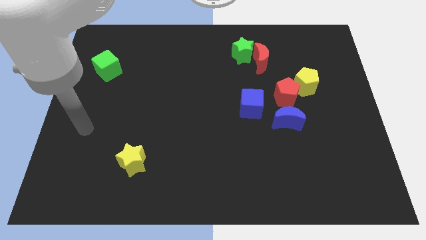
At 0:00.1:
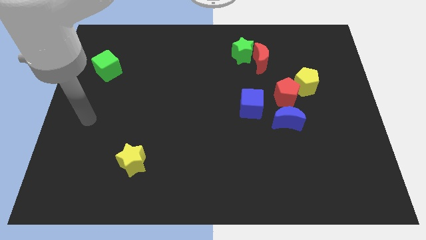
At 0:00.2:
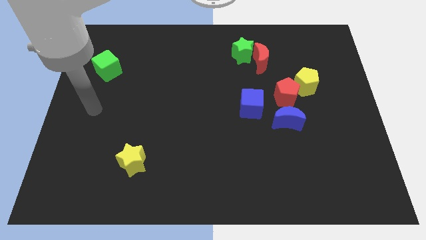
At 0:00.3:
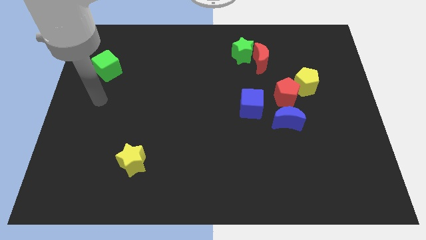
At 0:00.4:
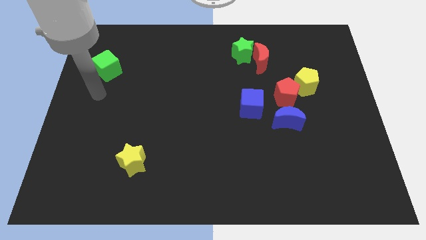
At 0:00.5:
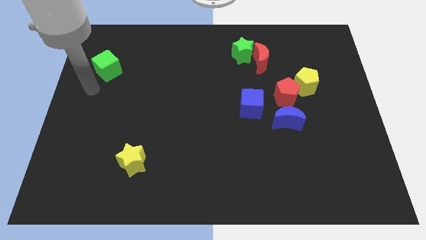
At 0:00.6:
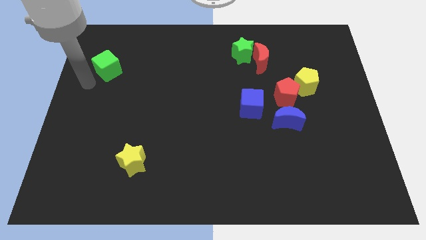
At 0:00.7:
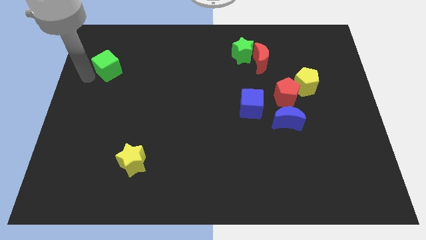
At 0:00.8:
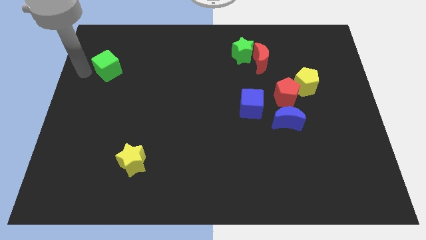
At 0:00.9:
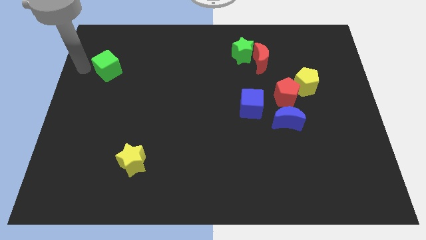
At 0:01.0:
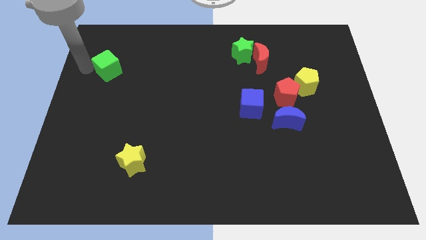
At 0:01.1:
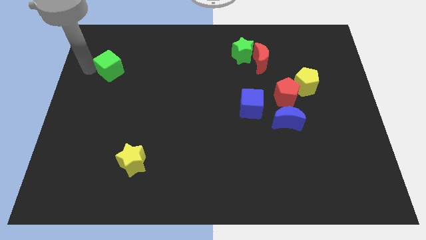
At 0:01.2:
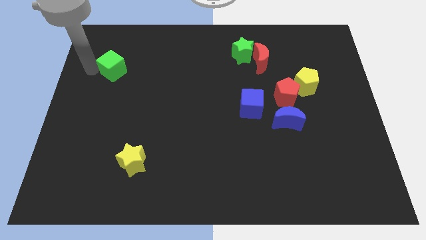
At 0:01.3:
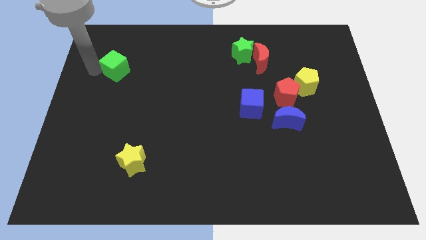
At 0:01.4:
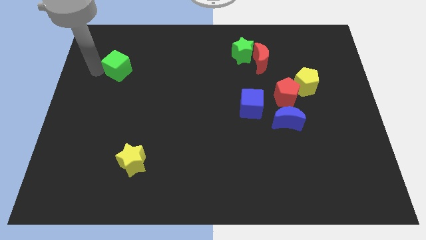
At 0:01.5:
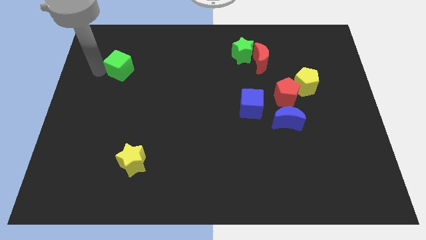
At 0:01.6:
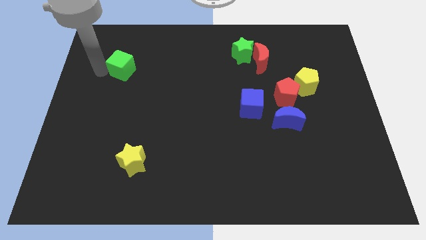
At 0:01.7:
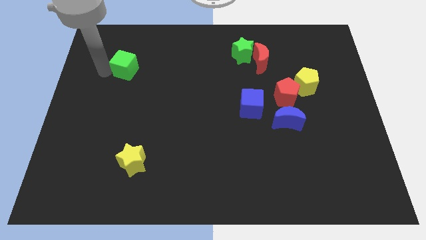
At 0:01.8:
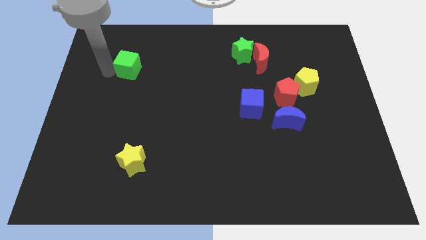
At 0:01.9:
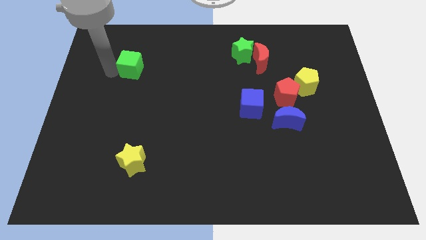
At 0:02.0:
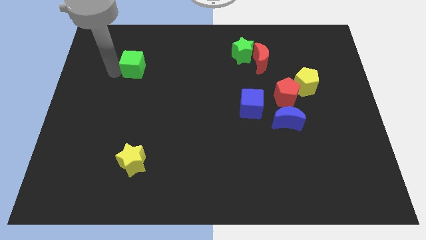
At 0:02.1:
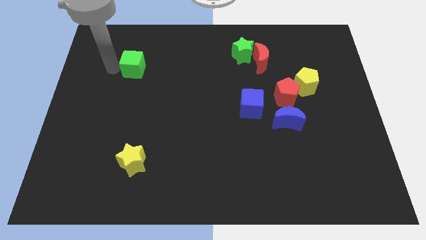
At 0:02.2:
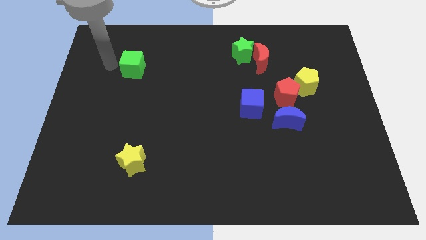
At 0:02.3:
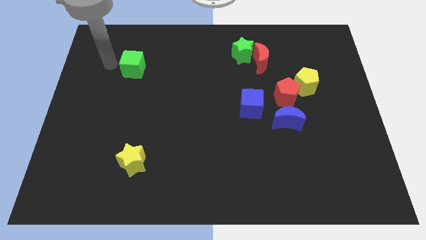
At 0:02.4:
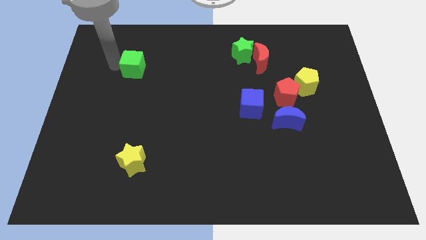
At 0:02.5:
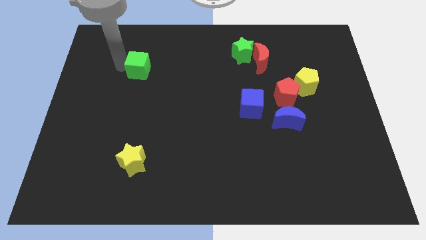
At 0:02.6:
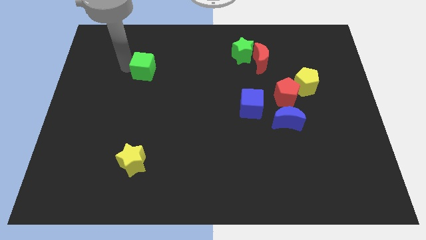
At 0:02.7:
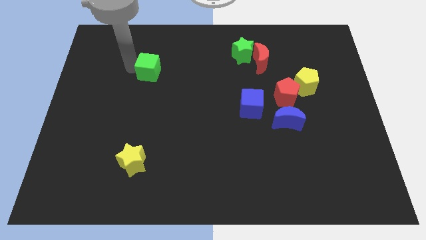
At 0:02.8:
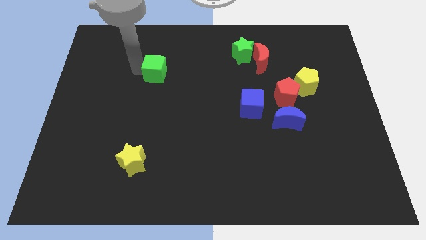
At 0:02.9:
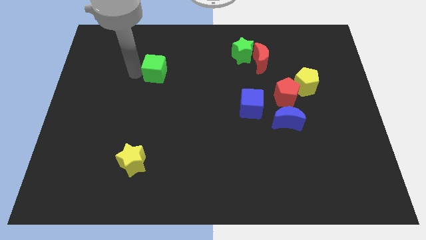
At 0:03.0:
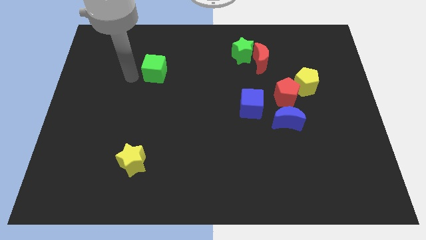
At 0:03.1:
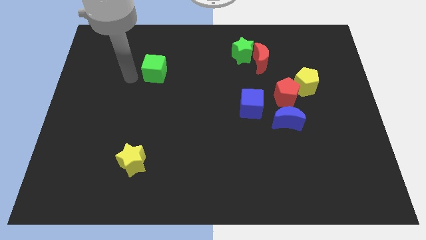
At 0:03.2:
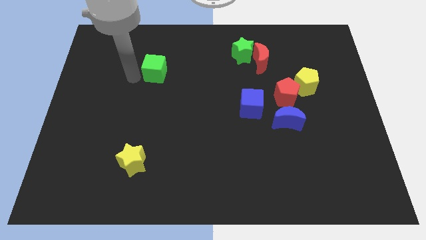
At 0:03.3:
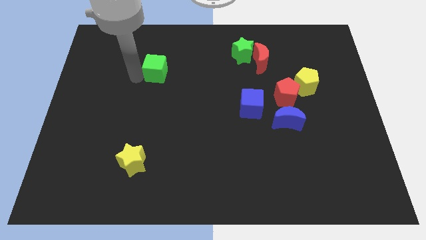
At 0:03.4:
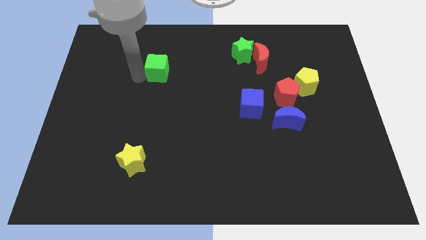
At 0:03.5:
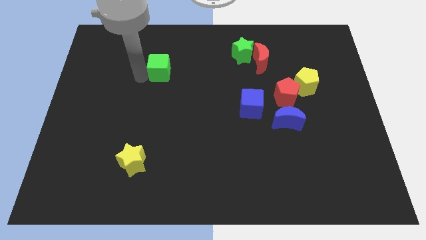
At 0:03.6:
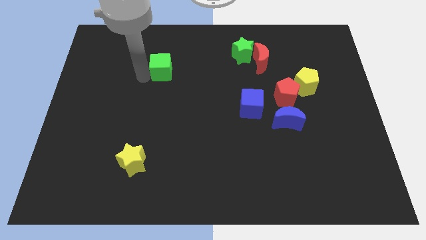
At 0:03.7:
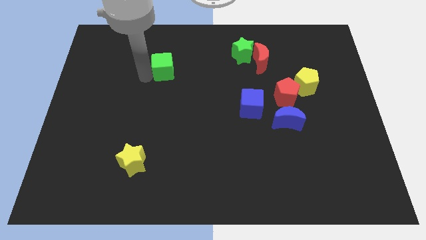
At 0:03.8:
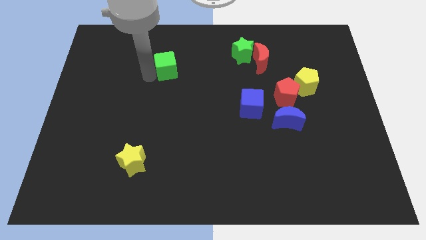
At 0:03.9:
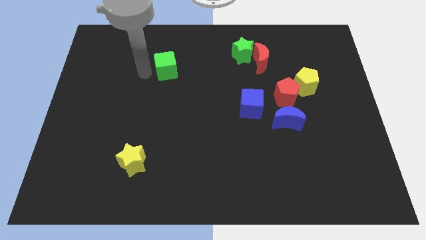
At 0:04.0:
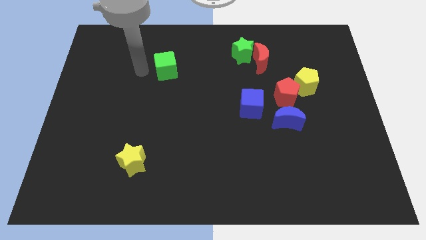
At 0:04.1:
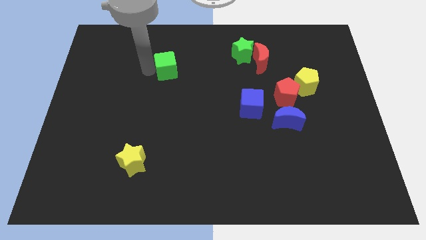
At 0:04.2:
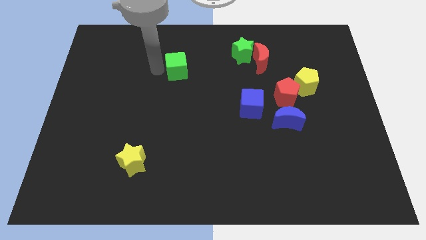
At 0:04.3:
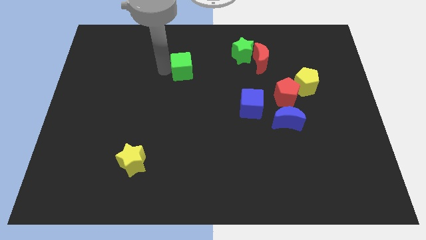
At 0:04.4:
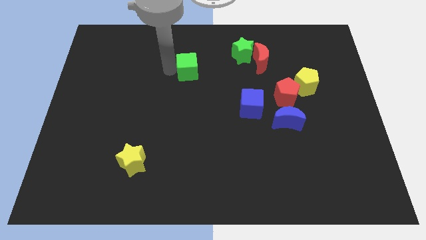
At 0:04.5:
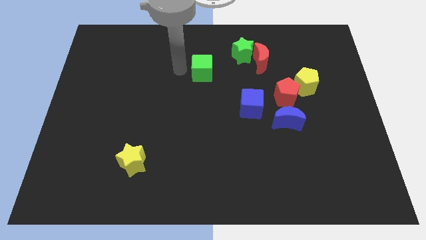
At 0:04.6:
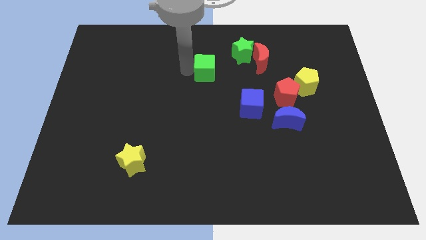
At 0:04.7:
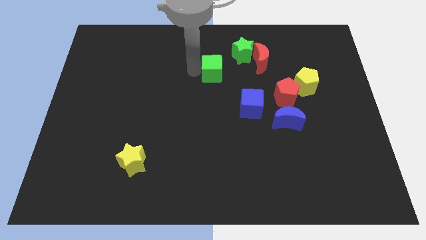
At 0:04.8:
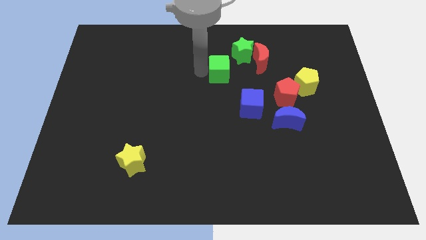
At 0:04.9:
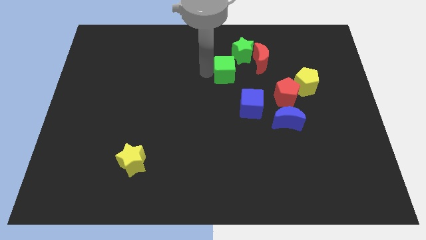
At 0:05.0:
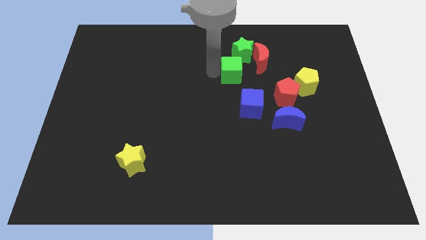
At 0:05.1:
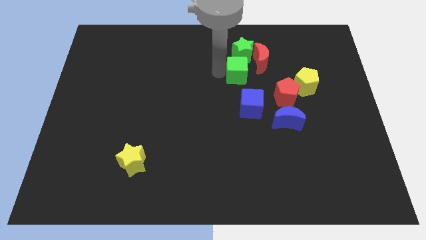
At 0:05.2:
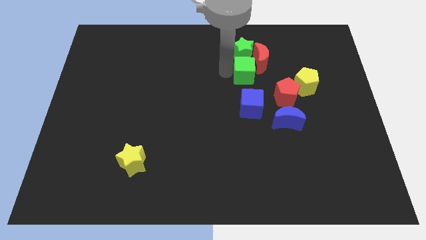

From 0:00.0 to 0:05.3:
push the green cube diagonally up and to the left of the red pentagon

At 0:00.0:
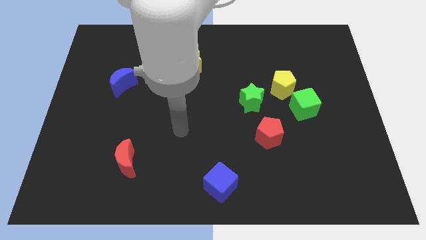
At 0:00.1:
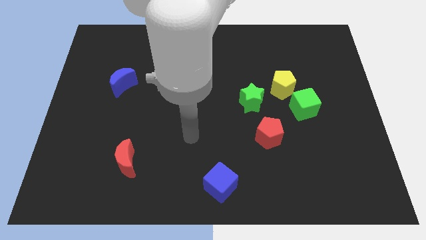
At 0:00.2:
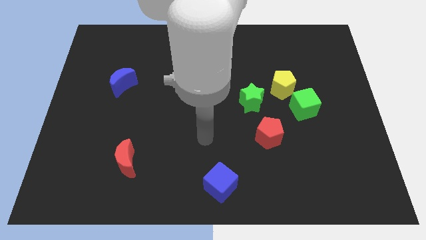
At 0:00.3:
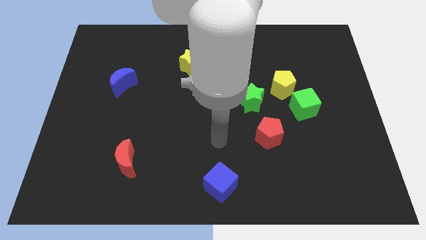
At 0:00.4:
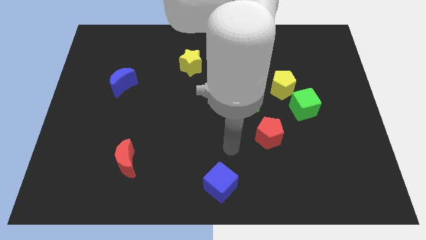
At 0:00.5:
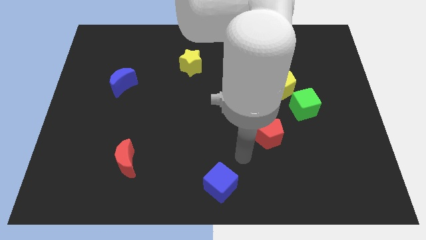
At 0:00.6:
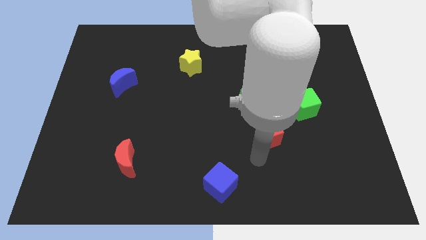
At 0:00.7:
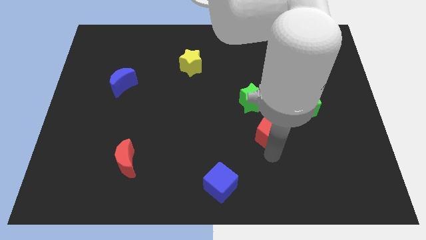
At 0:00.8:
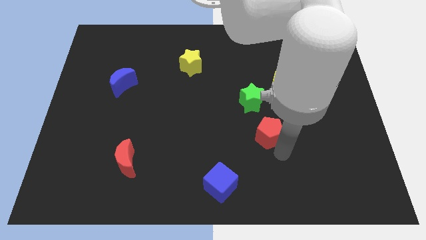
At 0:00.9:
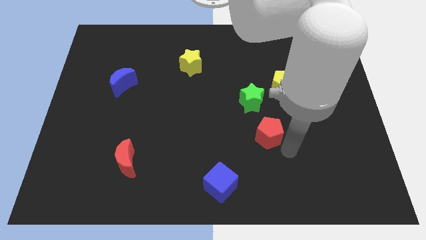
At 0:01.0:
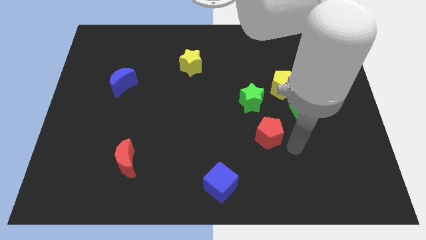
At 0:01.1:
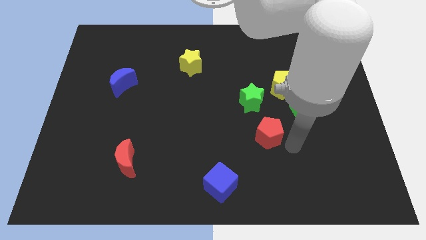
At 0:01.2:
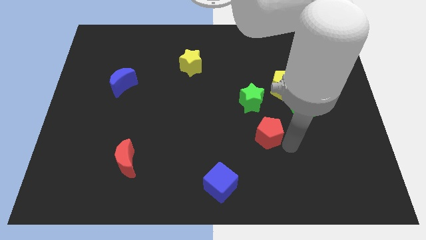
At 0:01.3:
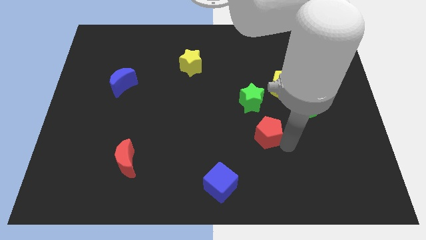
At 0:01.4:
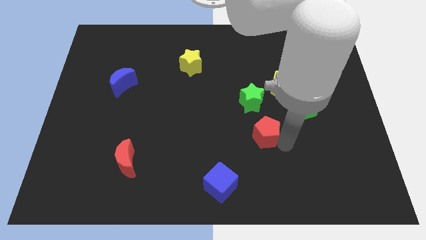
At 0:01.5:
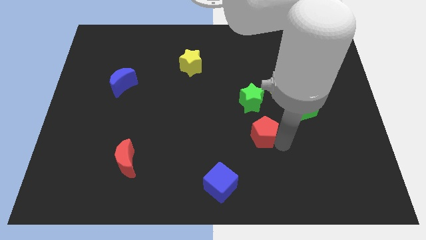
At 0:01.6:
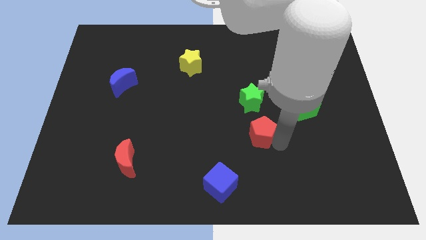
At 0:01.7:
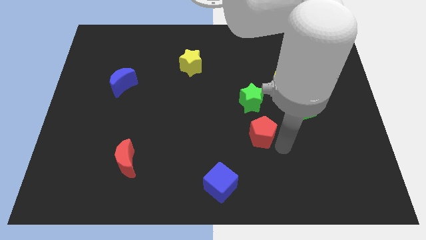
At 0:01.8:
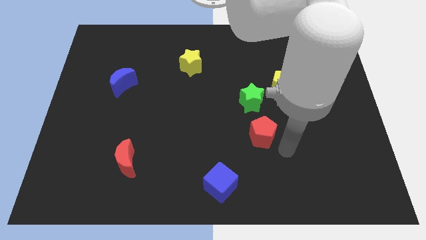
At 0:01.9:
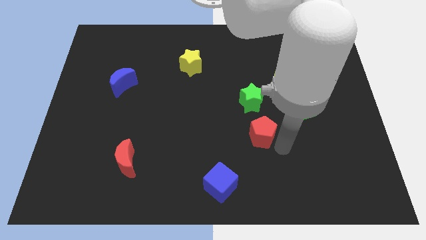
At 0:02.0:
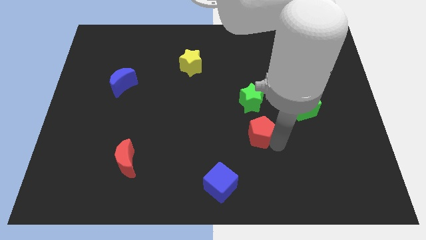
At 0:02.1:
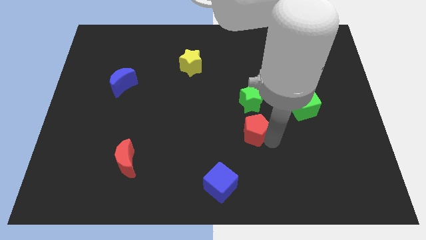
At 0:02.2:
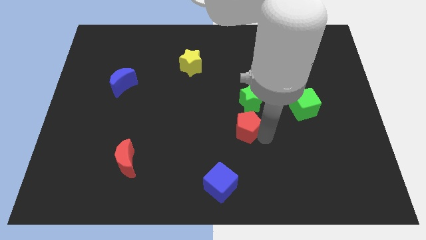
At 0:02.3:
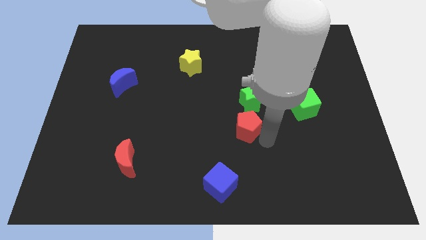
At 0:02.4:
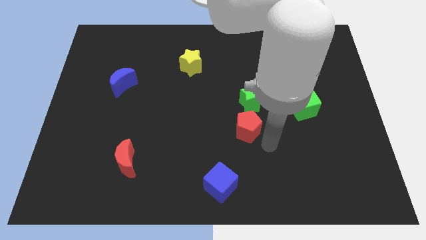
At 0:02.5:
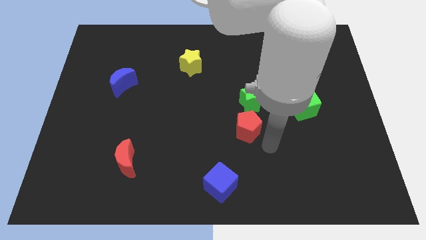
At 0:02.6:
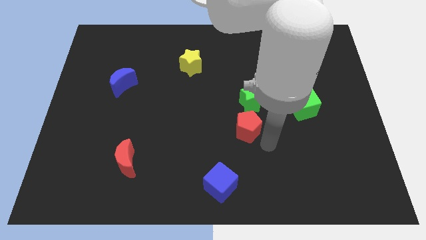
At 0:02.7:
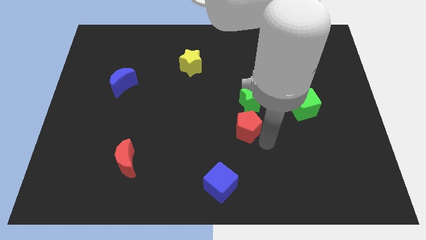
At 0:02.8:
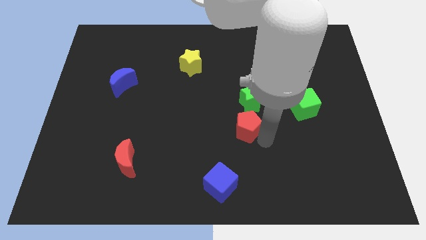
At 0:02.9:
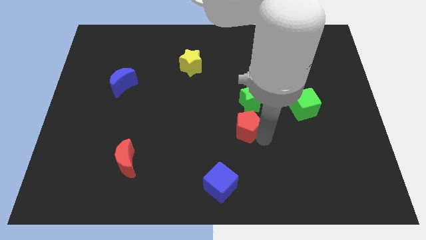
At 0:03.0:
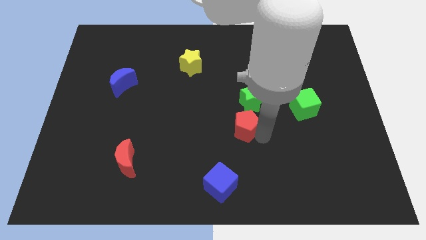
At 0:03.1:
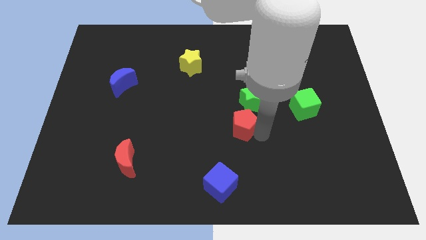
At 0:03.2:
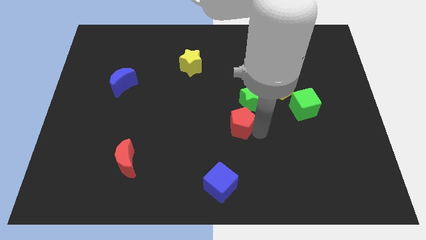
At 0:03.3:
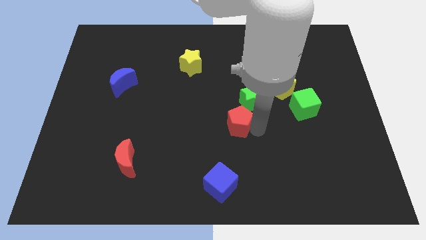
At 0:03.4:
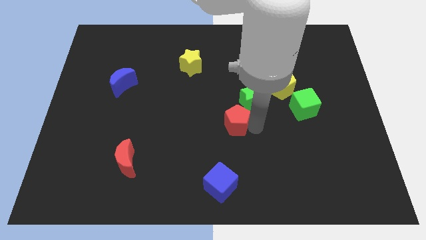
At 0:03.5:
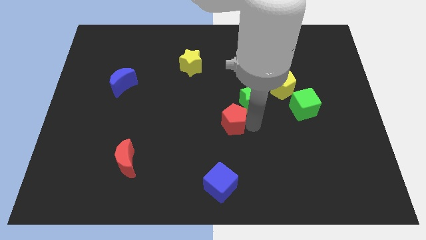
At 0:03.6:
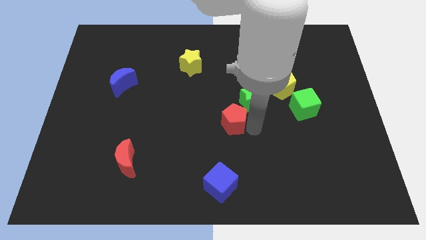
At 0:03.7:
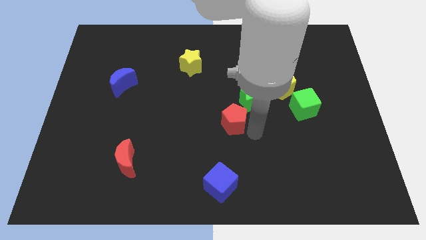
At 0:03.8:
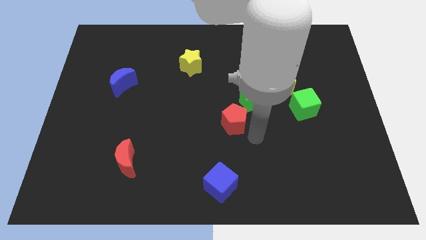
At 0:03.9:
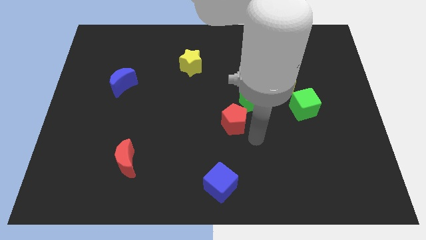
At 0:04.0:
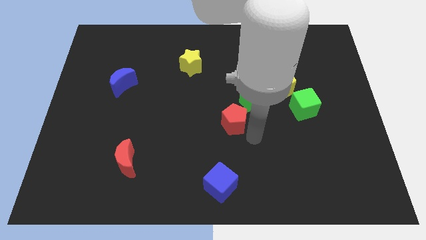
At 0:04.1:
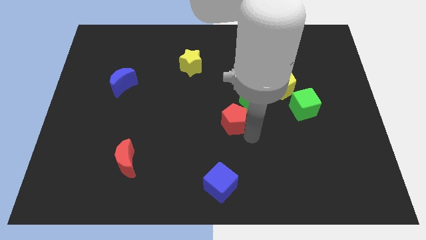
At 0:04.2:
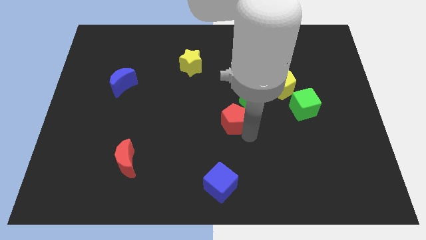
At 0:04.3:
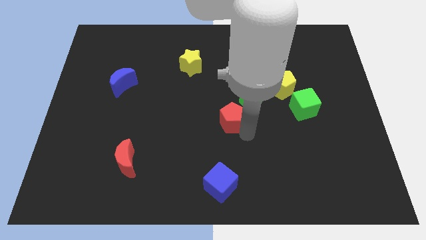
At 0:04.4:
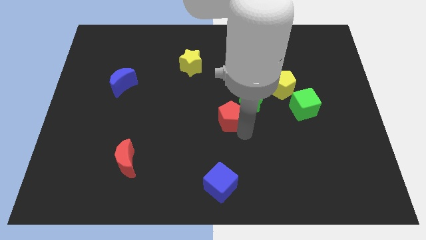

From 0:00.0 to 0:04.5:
slide the red pentagon to the left of the green star
